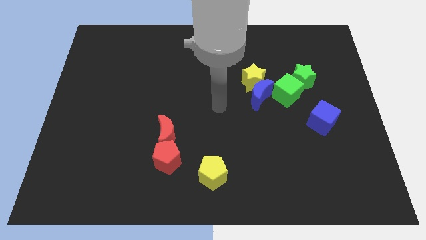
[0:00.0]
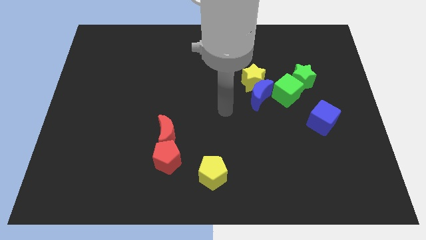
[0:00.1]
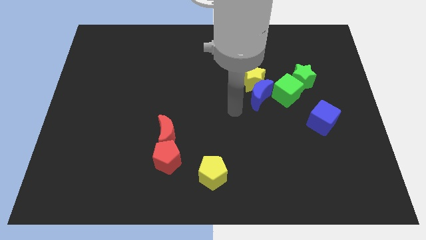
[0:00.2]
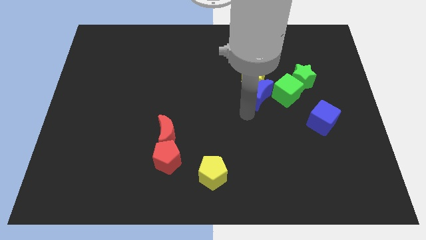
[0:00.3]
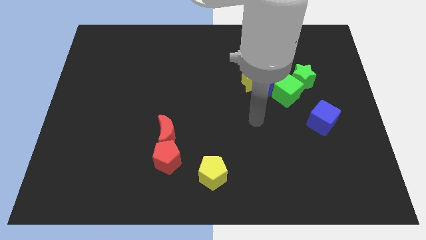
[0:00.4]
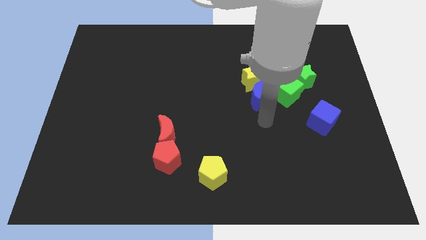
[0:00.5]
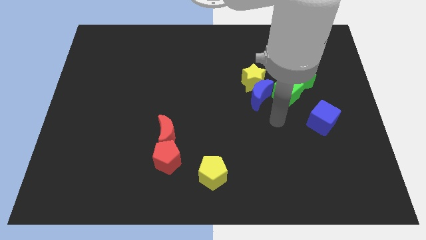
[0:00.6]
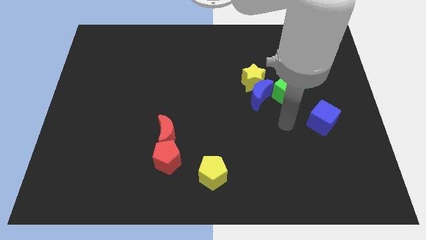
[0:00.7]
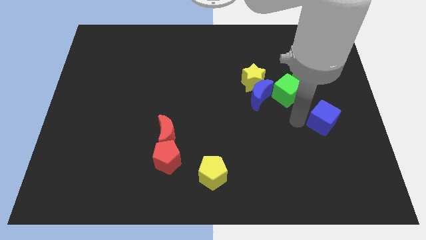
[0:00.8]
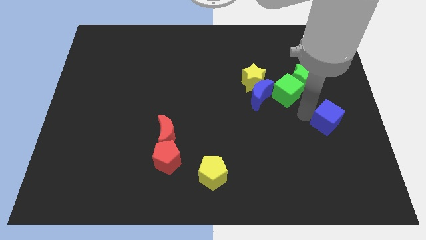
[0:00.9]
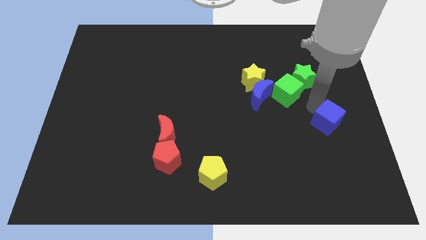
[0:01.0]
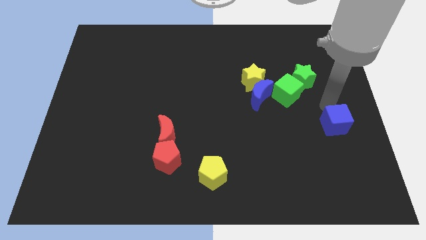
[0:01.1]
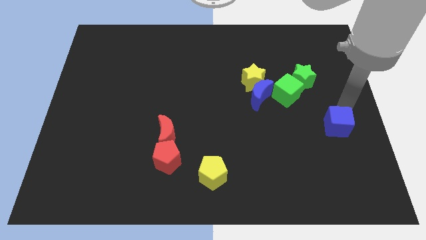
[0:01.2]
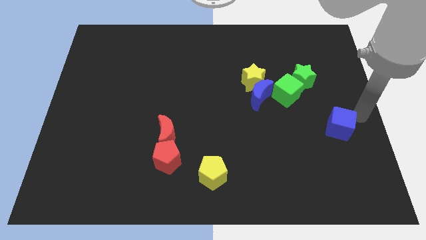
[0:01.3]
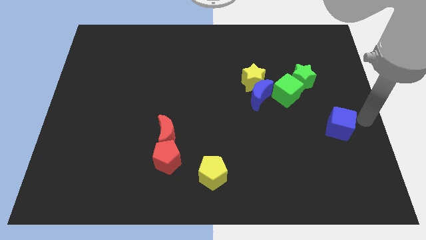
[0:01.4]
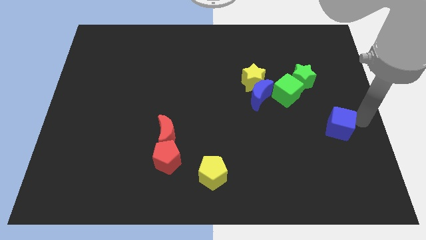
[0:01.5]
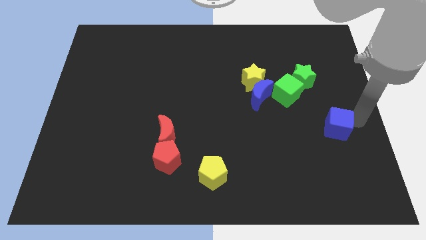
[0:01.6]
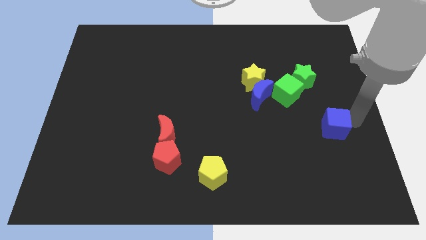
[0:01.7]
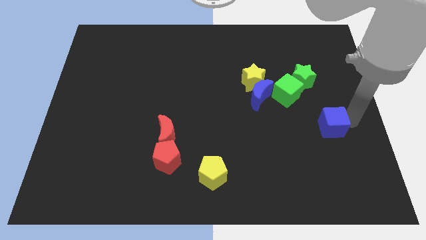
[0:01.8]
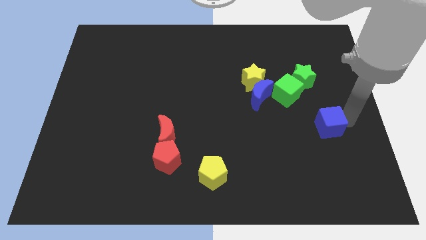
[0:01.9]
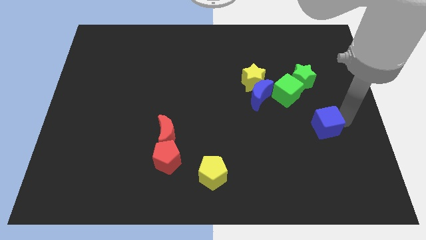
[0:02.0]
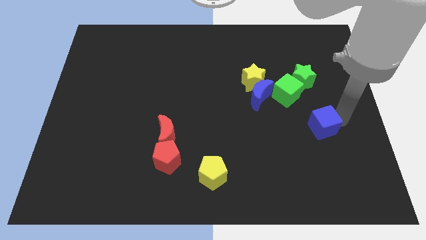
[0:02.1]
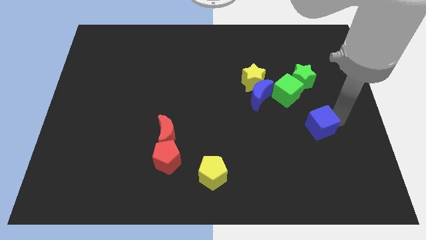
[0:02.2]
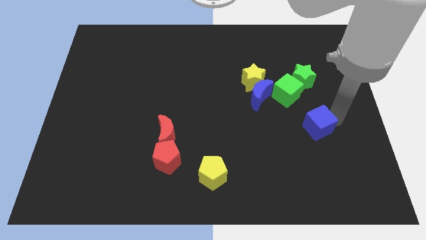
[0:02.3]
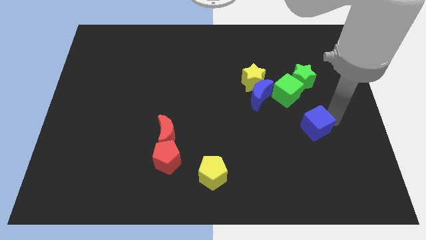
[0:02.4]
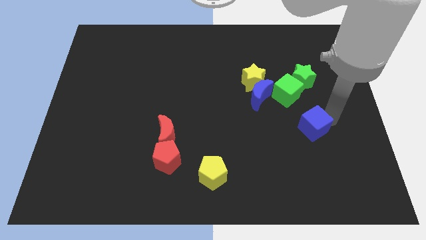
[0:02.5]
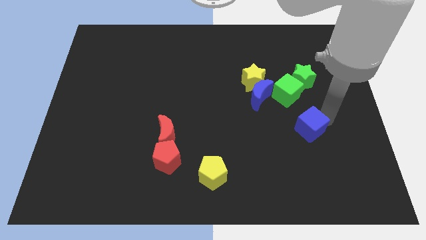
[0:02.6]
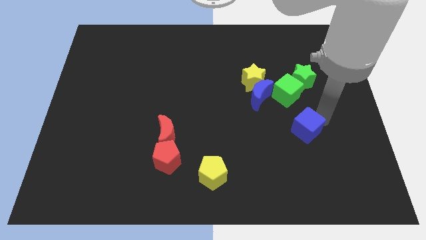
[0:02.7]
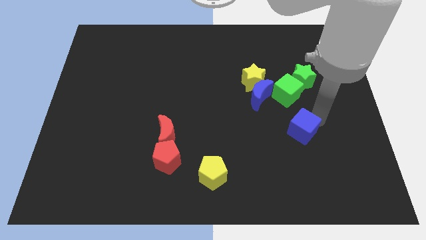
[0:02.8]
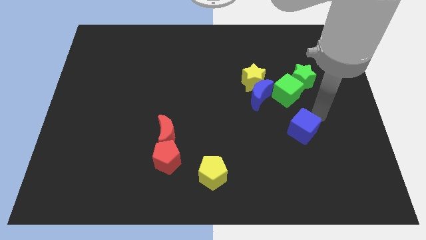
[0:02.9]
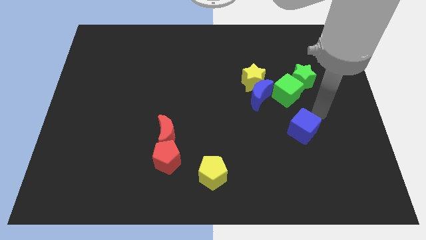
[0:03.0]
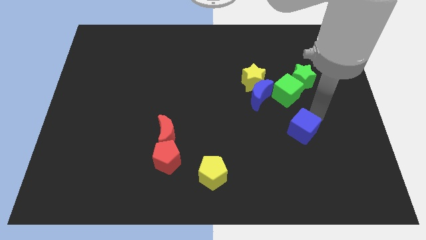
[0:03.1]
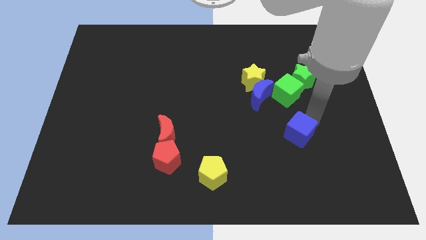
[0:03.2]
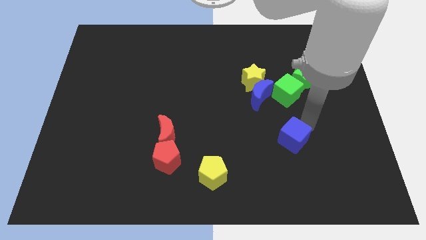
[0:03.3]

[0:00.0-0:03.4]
move the blue cube a little down and to the left diagonally

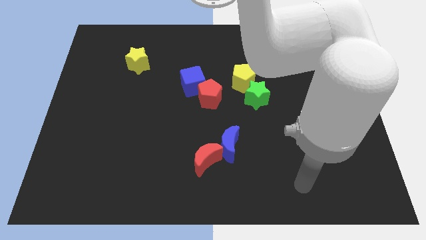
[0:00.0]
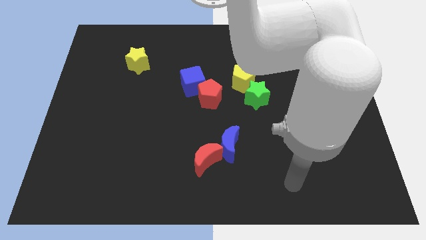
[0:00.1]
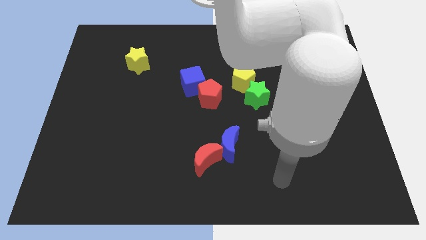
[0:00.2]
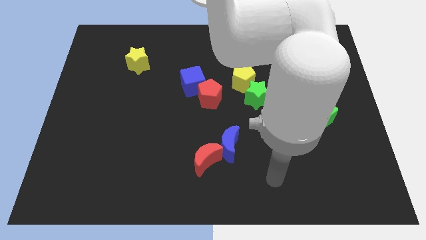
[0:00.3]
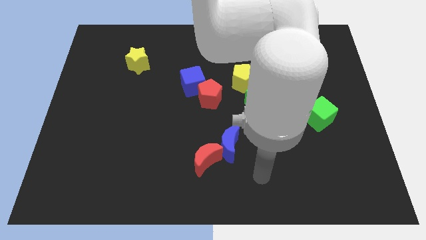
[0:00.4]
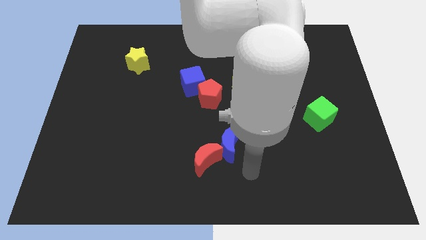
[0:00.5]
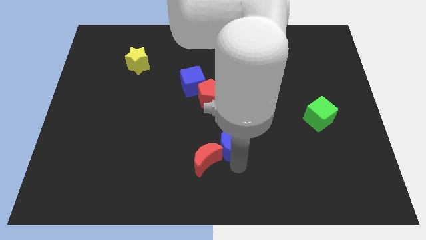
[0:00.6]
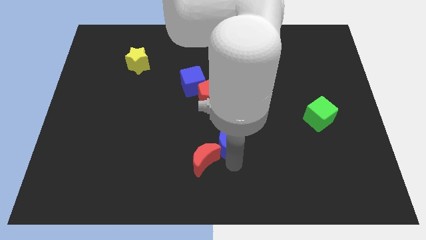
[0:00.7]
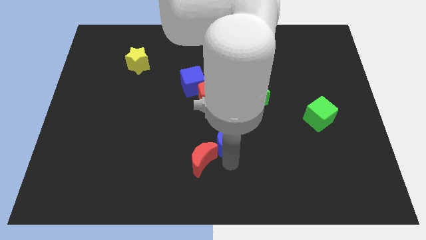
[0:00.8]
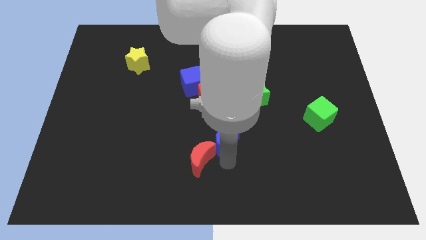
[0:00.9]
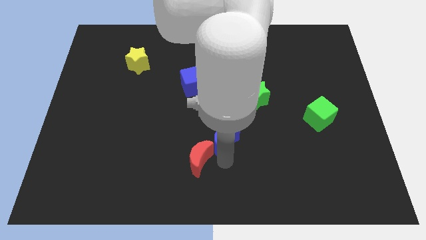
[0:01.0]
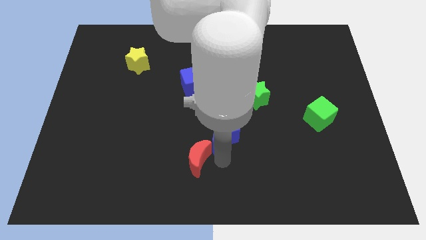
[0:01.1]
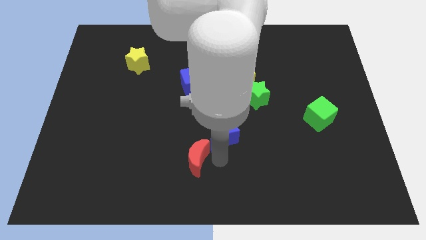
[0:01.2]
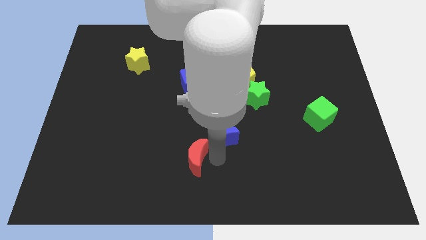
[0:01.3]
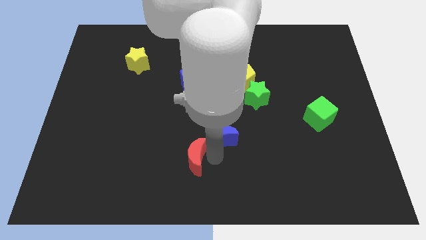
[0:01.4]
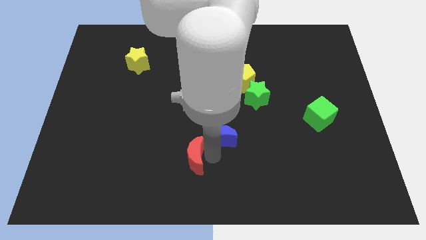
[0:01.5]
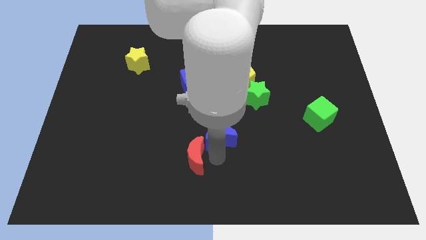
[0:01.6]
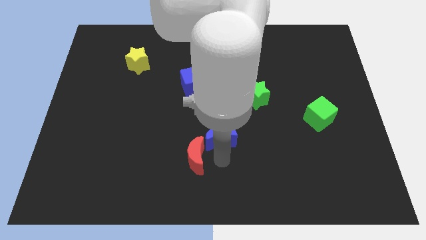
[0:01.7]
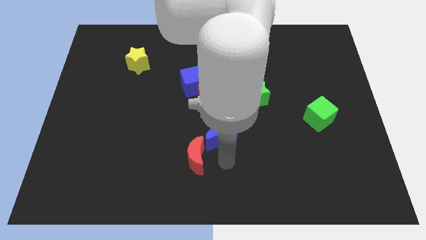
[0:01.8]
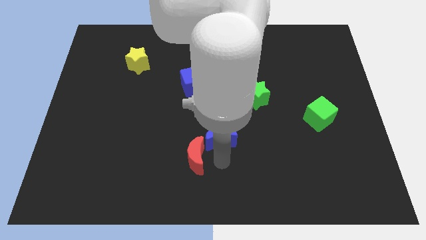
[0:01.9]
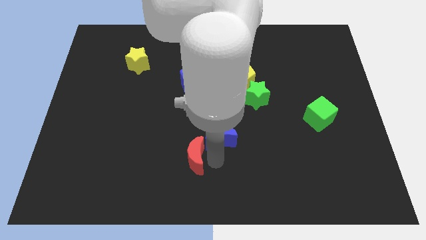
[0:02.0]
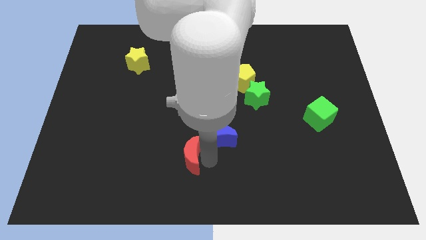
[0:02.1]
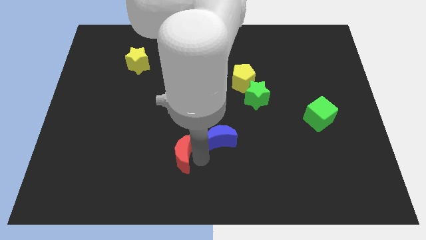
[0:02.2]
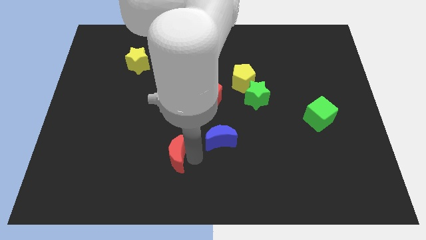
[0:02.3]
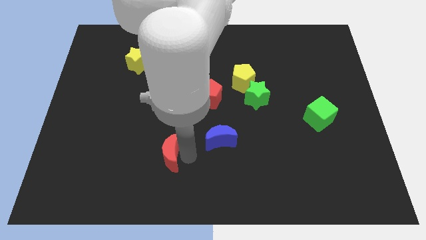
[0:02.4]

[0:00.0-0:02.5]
slightly push the red moon left

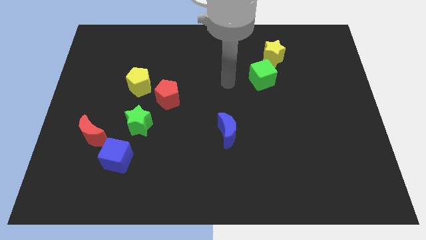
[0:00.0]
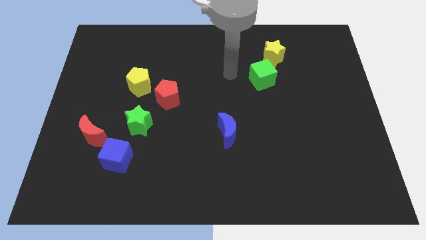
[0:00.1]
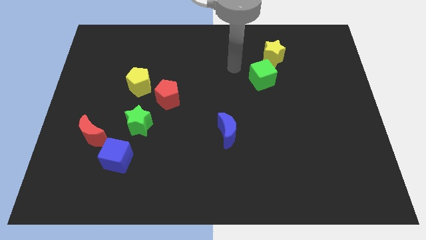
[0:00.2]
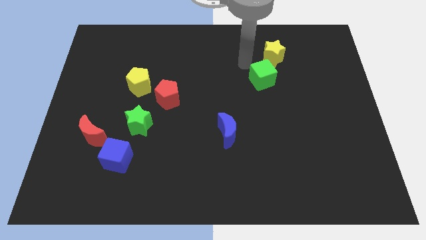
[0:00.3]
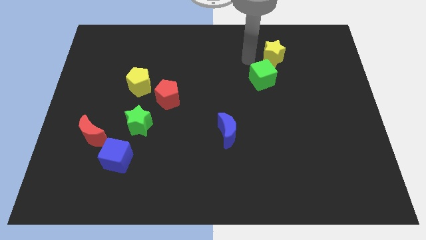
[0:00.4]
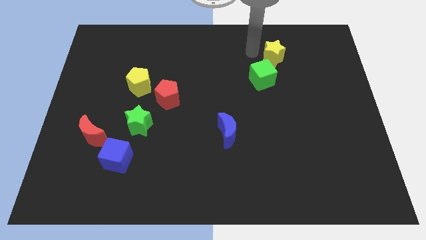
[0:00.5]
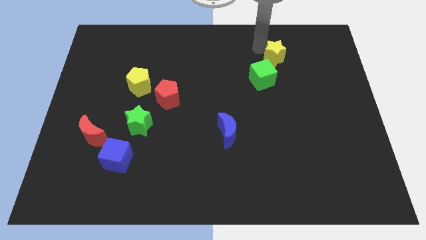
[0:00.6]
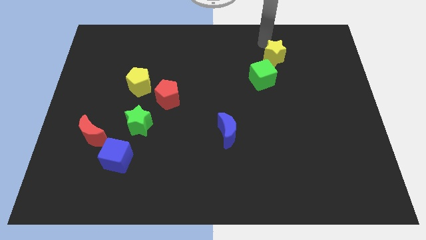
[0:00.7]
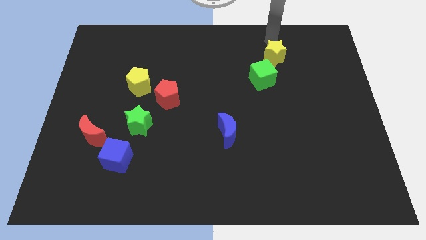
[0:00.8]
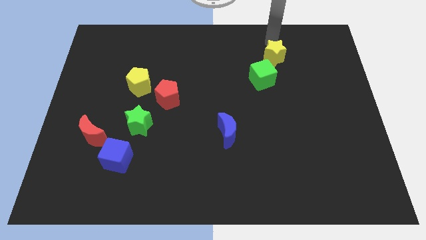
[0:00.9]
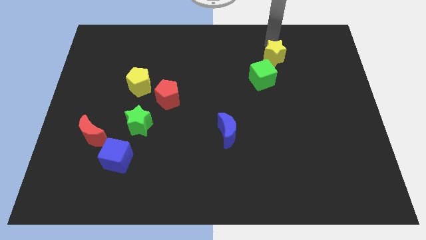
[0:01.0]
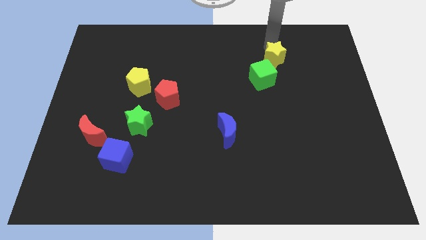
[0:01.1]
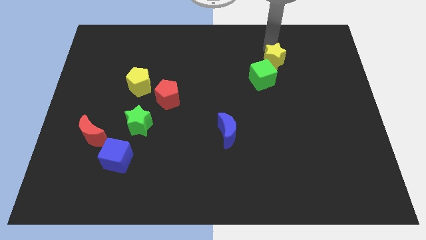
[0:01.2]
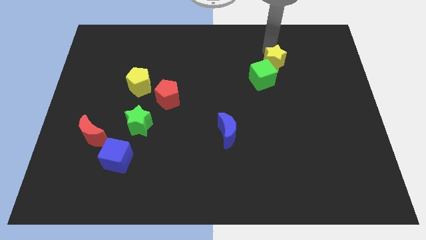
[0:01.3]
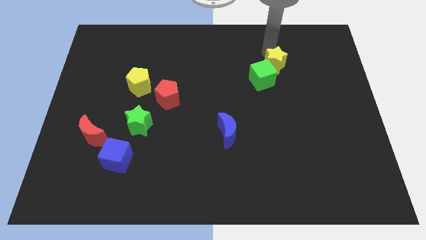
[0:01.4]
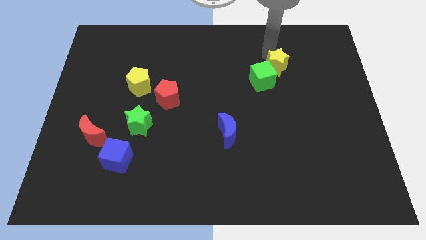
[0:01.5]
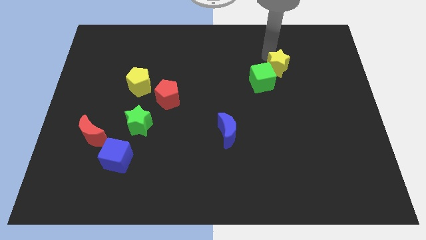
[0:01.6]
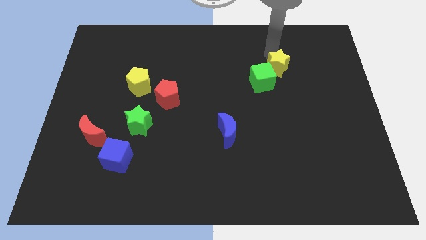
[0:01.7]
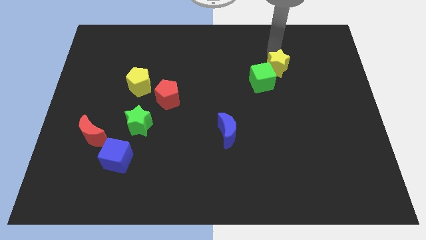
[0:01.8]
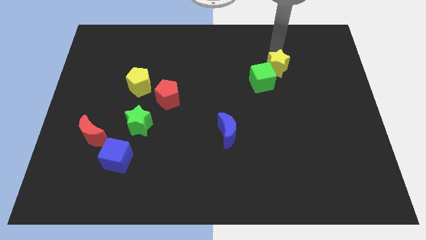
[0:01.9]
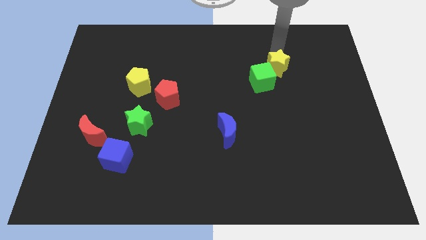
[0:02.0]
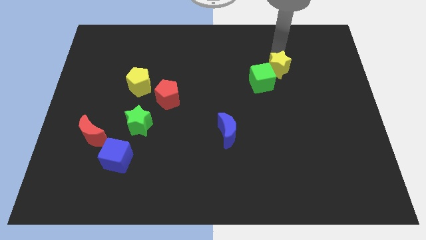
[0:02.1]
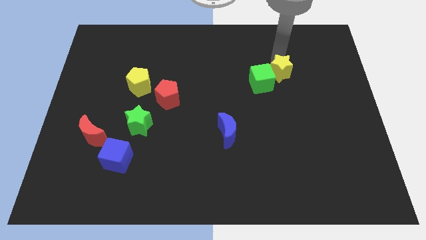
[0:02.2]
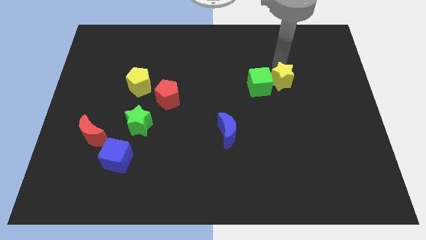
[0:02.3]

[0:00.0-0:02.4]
move the yellow star slightly down
